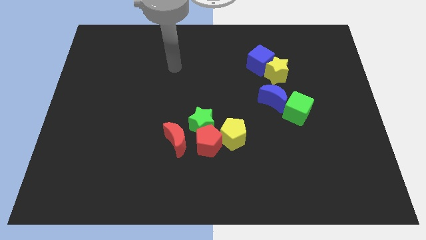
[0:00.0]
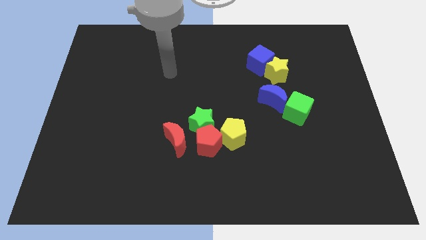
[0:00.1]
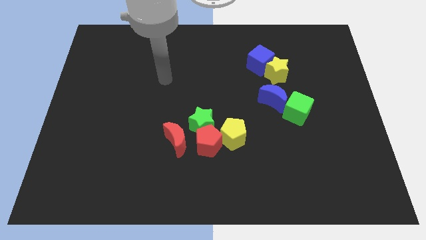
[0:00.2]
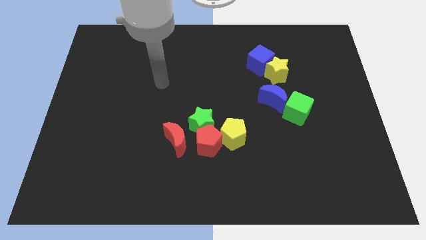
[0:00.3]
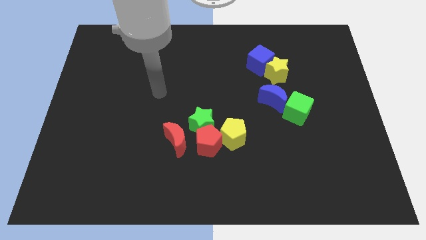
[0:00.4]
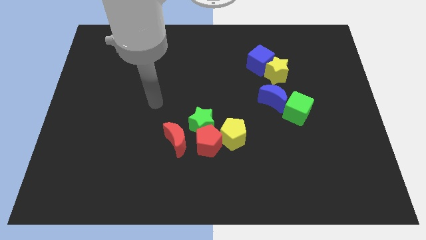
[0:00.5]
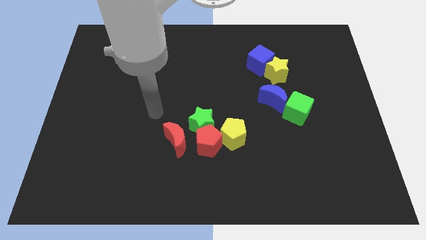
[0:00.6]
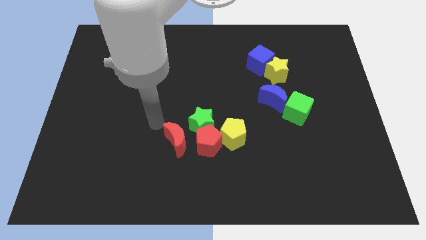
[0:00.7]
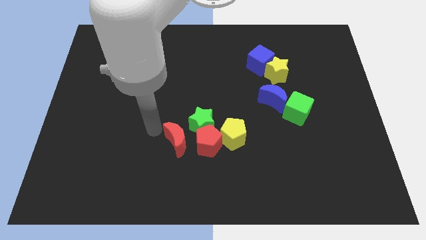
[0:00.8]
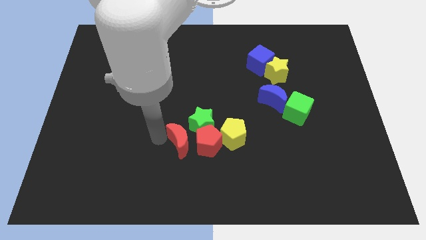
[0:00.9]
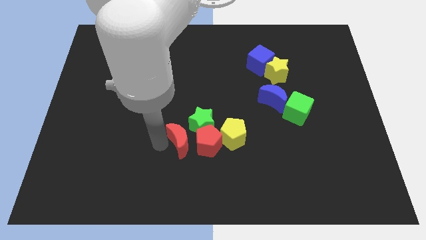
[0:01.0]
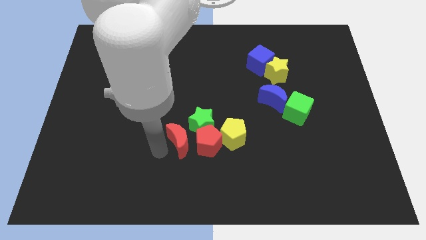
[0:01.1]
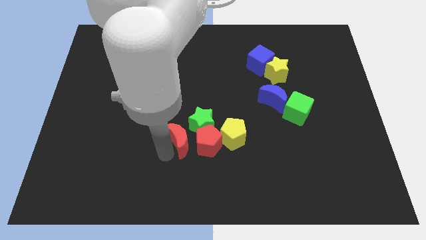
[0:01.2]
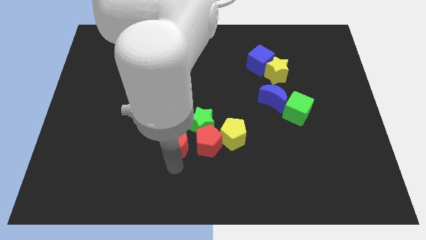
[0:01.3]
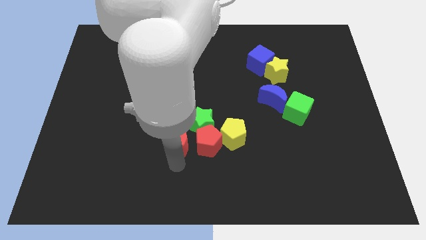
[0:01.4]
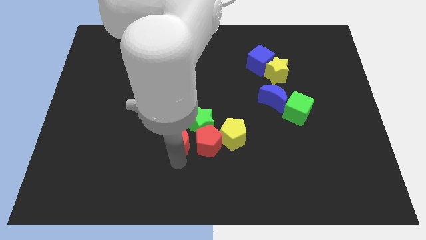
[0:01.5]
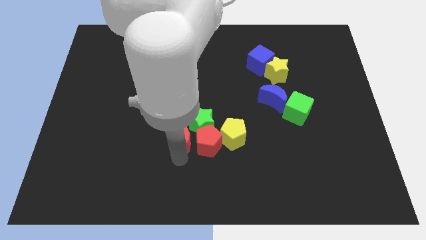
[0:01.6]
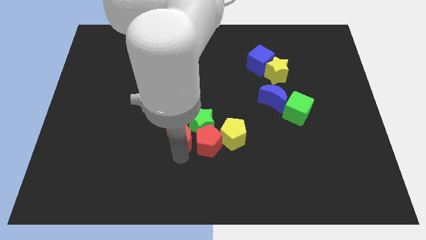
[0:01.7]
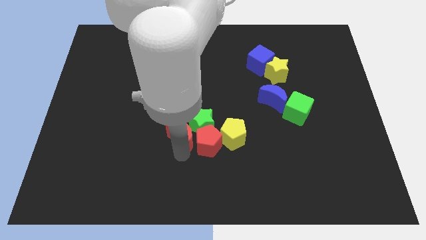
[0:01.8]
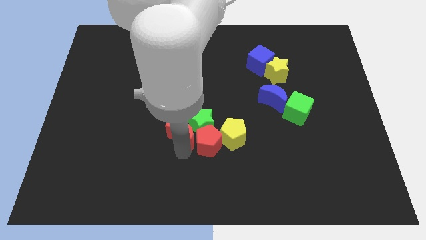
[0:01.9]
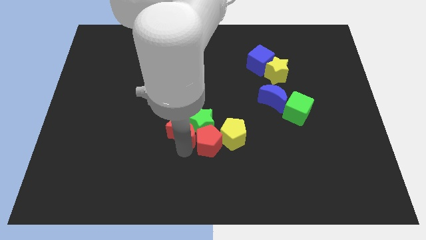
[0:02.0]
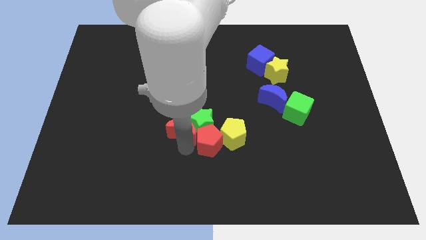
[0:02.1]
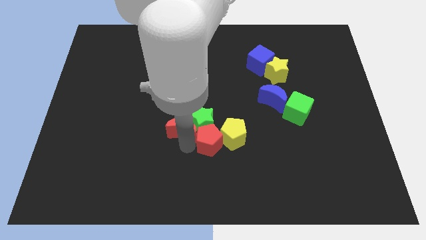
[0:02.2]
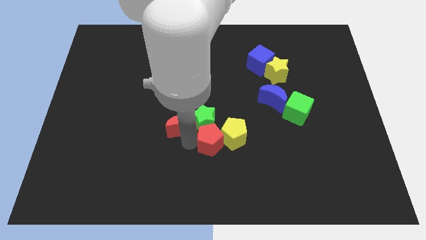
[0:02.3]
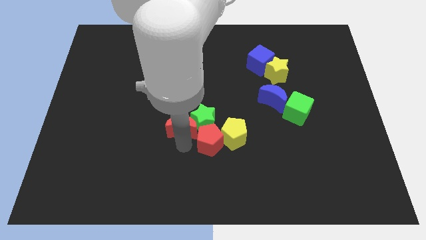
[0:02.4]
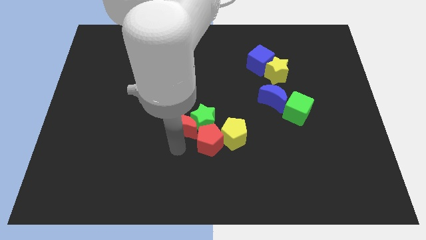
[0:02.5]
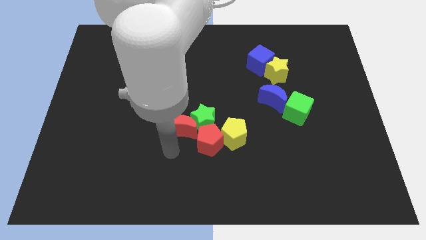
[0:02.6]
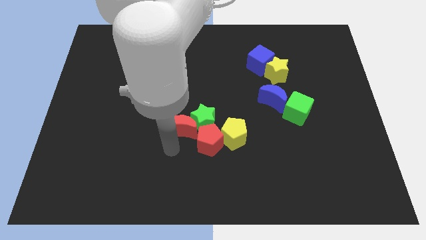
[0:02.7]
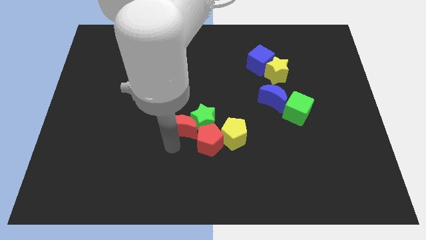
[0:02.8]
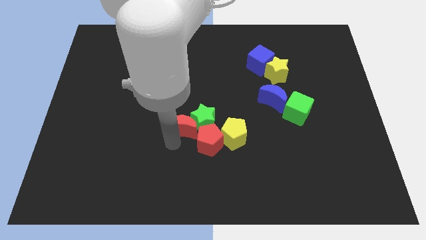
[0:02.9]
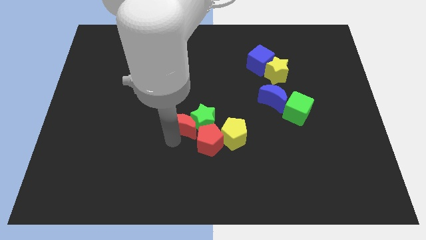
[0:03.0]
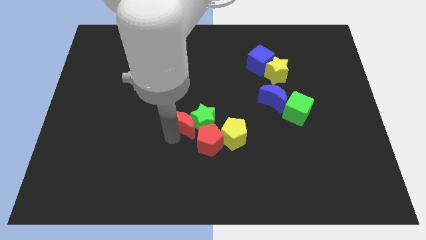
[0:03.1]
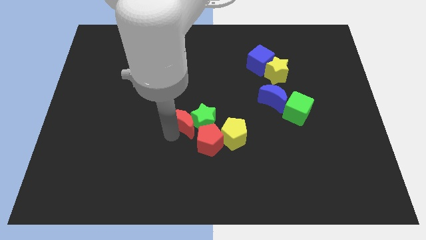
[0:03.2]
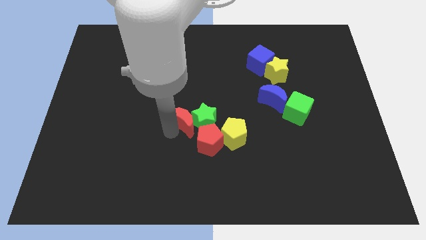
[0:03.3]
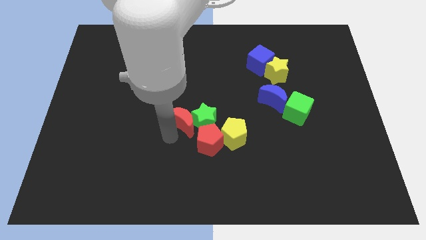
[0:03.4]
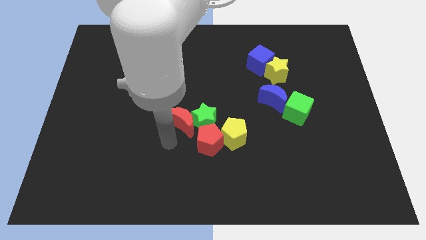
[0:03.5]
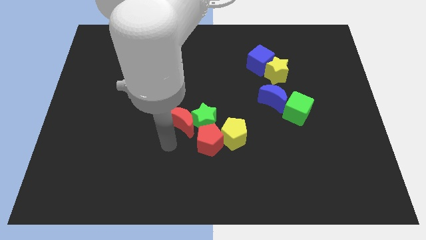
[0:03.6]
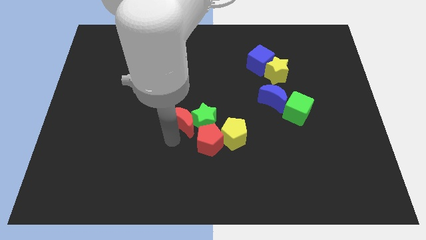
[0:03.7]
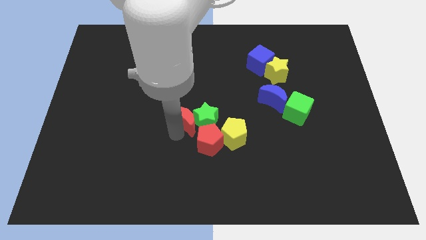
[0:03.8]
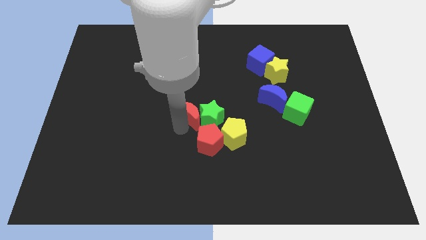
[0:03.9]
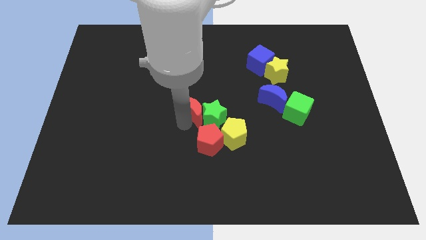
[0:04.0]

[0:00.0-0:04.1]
slide the red moon a bit up and right diagonally

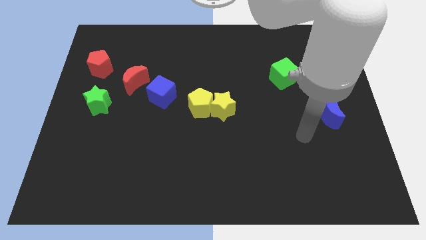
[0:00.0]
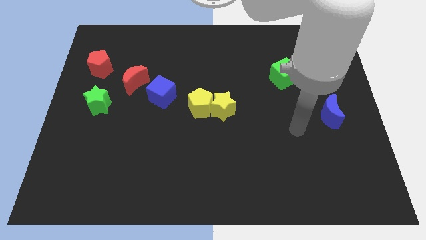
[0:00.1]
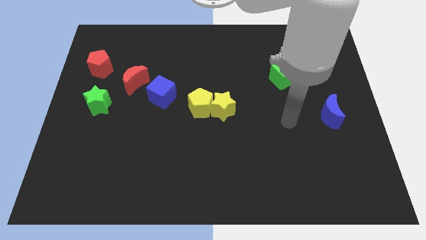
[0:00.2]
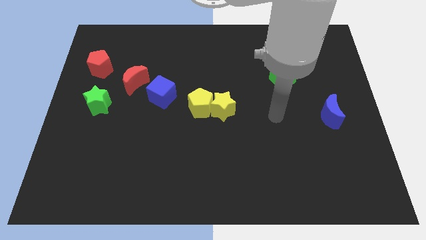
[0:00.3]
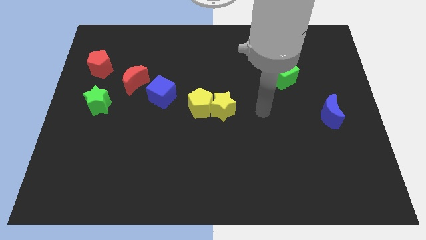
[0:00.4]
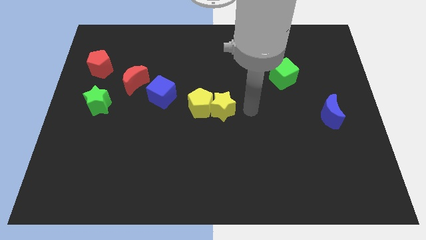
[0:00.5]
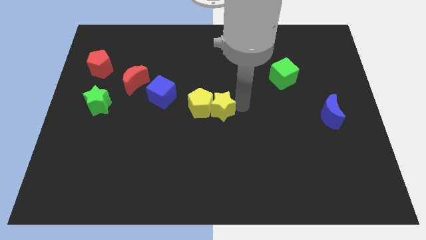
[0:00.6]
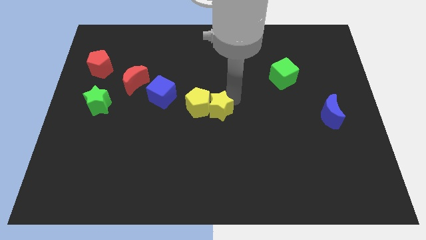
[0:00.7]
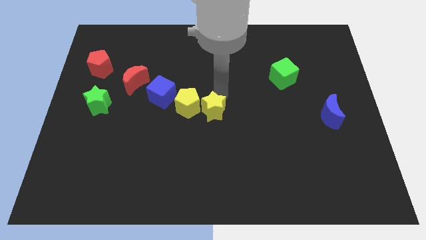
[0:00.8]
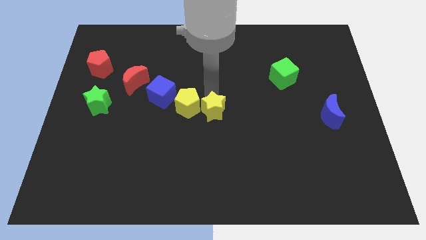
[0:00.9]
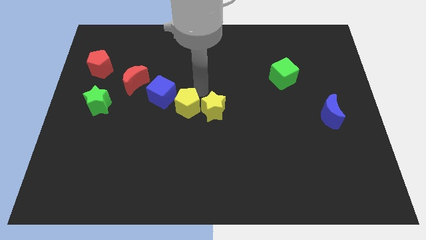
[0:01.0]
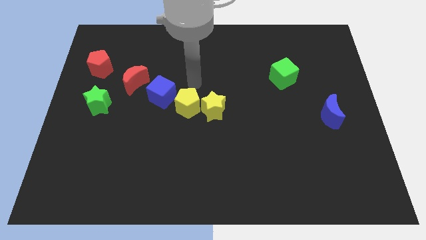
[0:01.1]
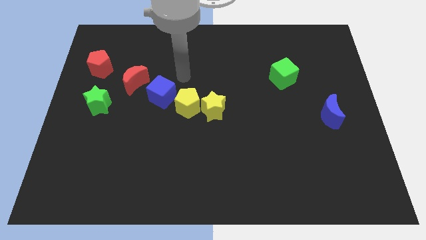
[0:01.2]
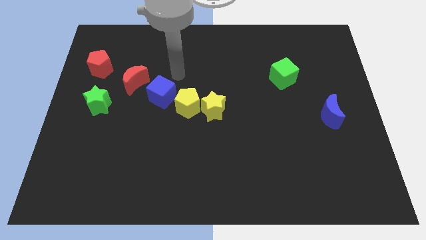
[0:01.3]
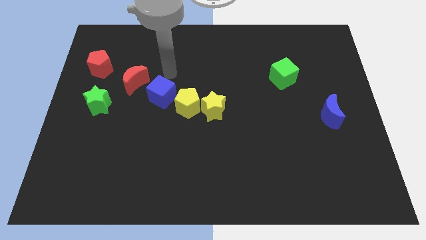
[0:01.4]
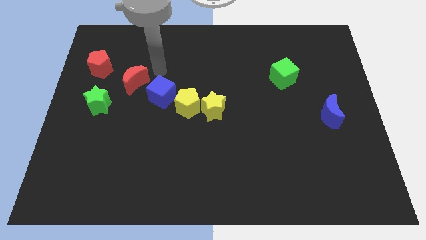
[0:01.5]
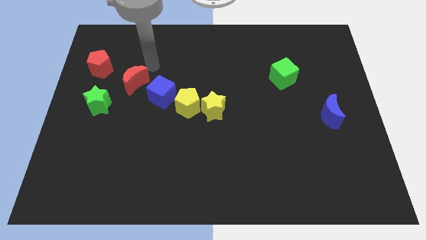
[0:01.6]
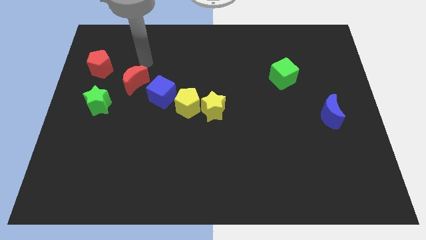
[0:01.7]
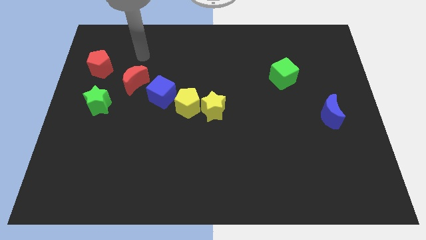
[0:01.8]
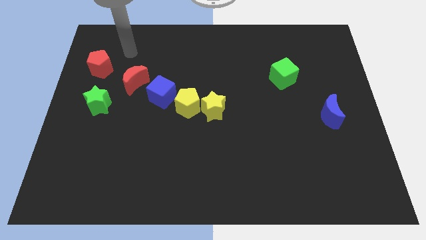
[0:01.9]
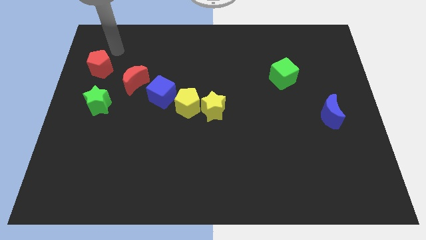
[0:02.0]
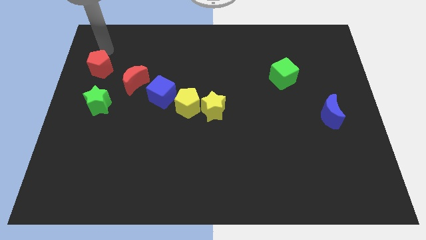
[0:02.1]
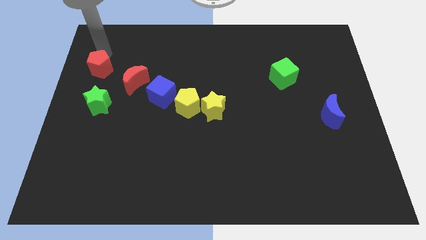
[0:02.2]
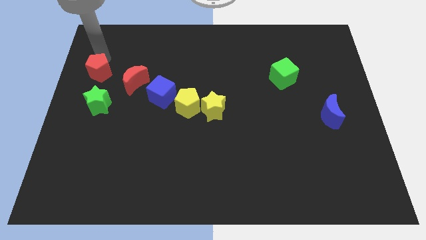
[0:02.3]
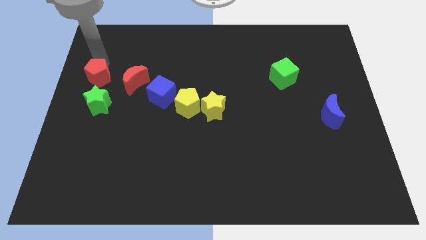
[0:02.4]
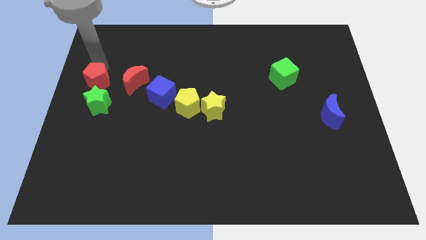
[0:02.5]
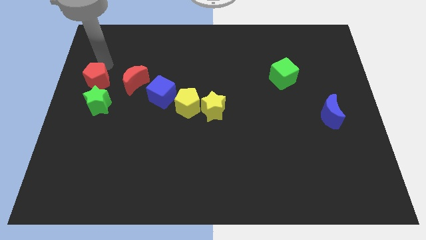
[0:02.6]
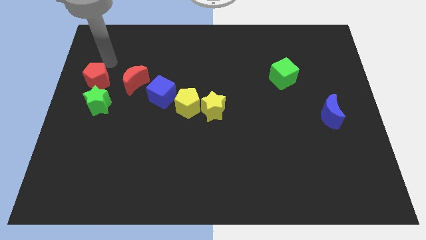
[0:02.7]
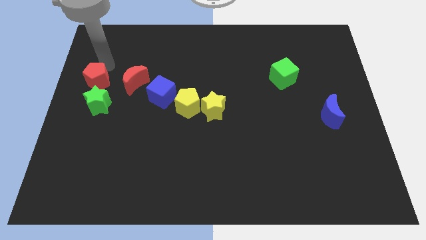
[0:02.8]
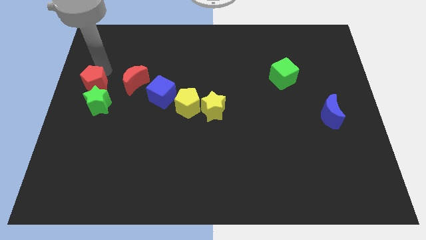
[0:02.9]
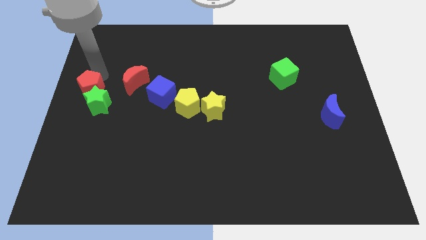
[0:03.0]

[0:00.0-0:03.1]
slide the red pentagon down slightly

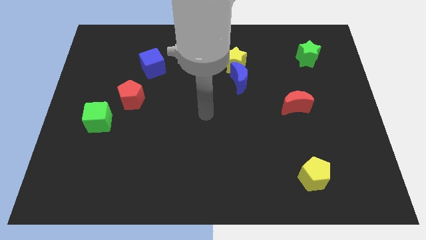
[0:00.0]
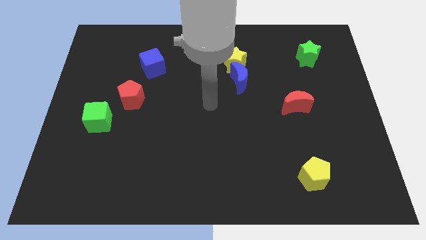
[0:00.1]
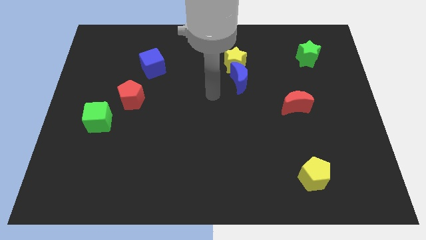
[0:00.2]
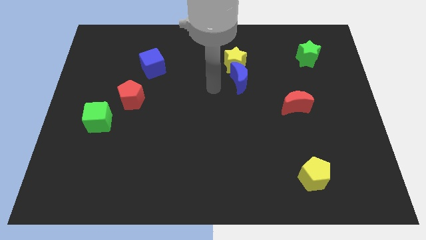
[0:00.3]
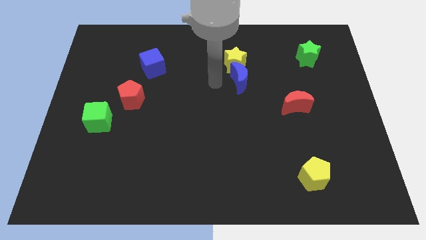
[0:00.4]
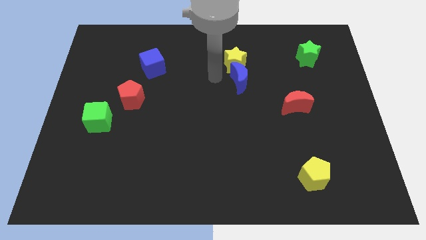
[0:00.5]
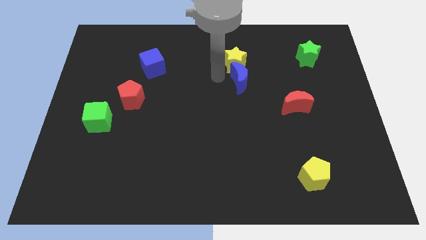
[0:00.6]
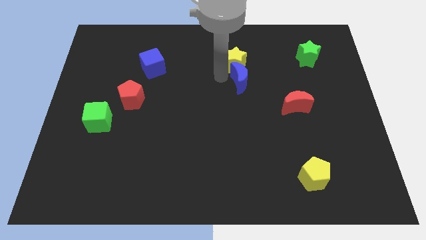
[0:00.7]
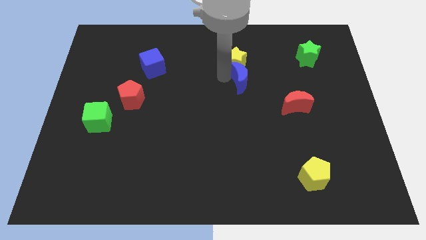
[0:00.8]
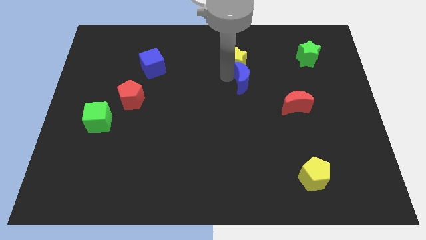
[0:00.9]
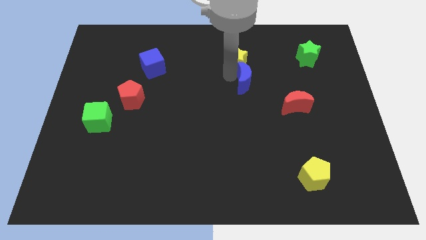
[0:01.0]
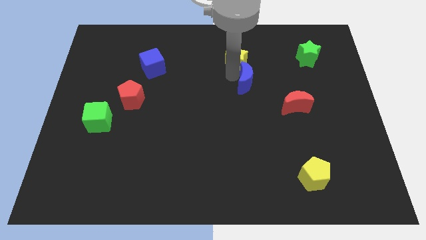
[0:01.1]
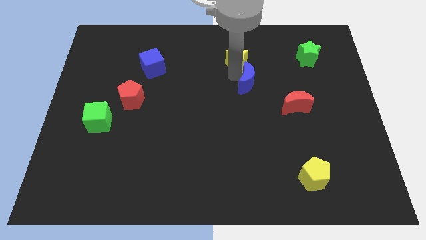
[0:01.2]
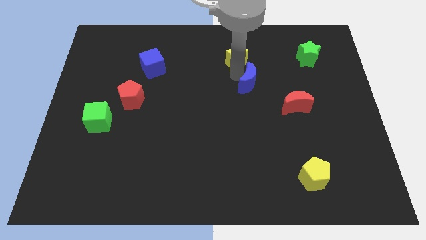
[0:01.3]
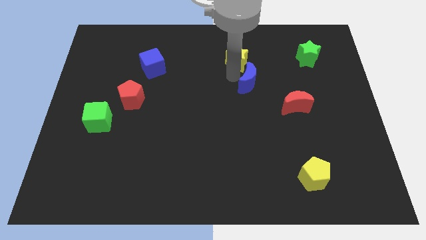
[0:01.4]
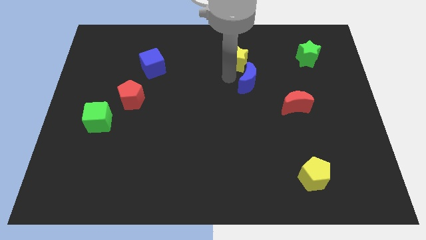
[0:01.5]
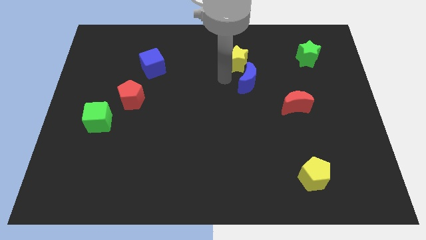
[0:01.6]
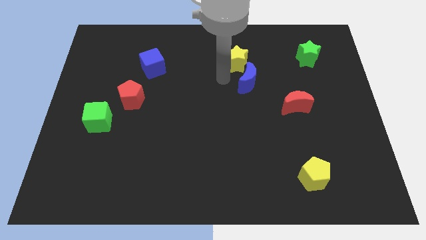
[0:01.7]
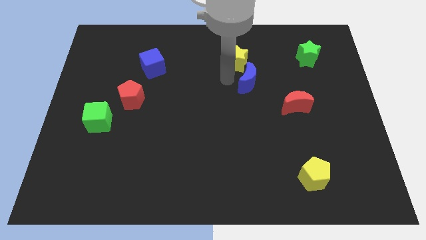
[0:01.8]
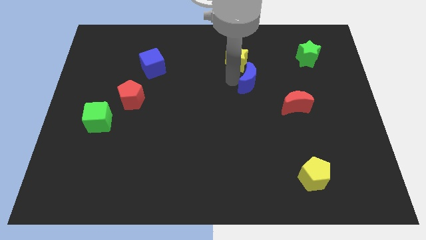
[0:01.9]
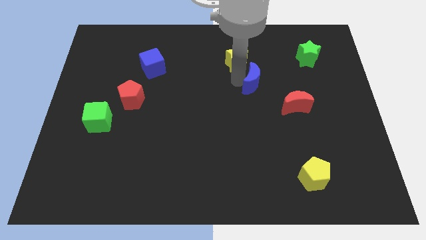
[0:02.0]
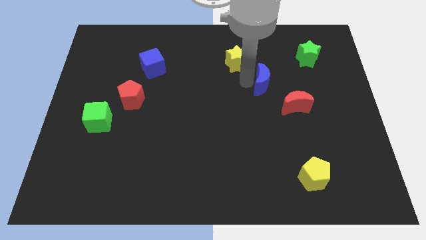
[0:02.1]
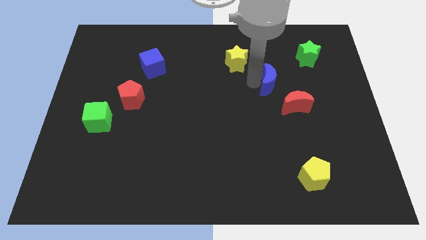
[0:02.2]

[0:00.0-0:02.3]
slightly push the blue moon right
